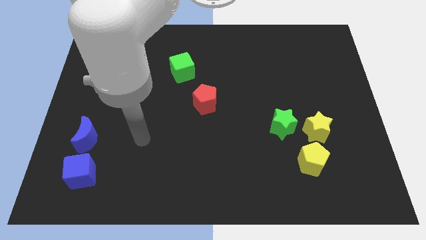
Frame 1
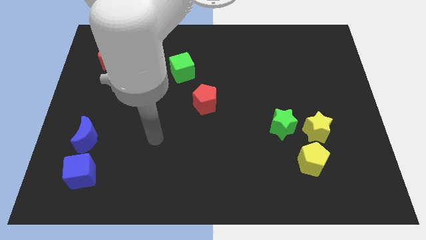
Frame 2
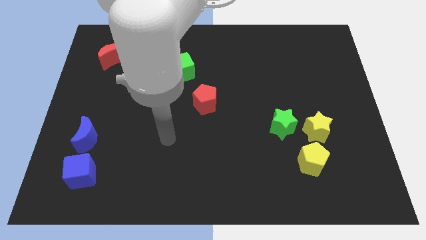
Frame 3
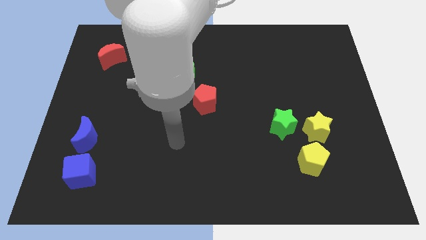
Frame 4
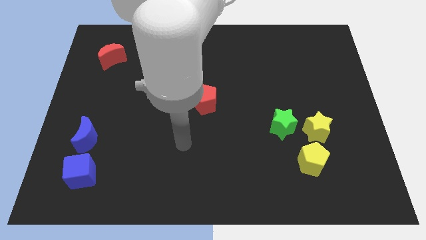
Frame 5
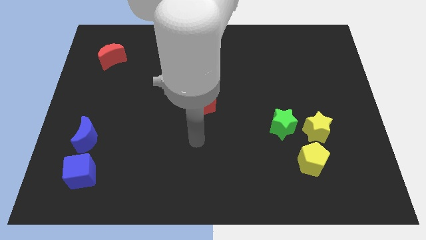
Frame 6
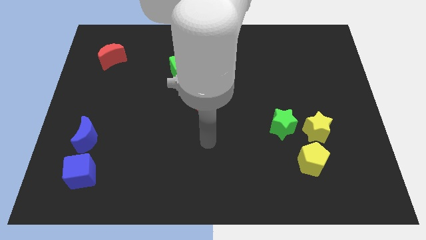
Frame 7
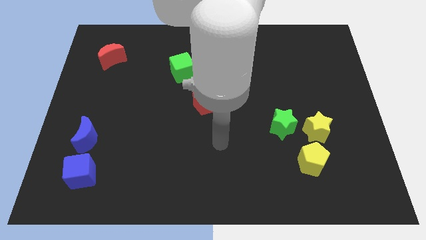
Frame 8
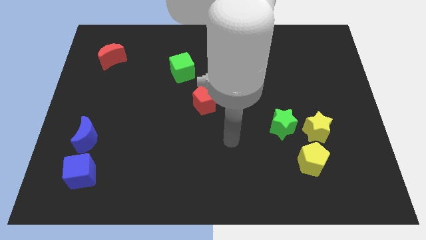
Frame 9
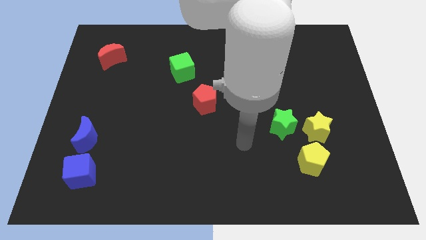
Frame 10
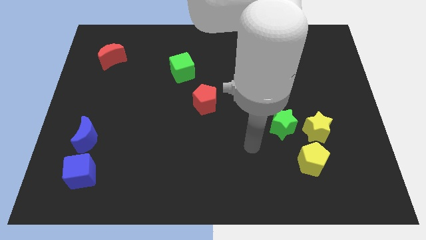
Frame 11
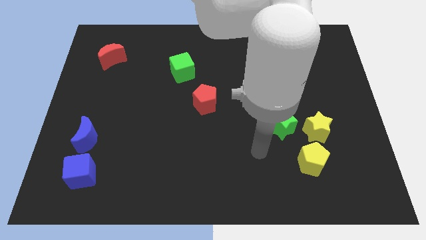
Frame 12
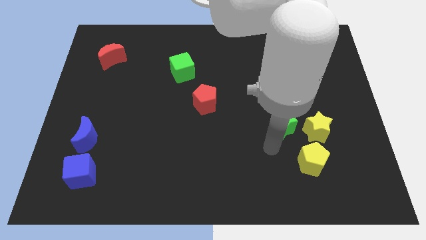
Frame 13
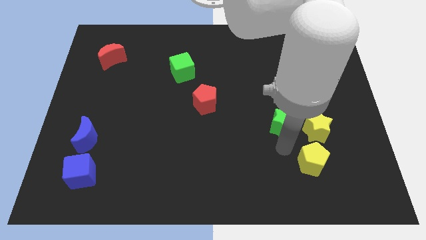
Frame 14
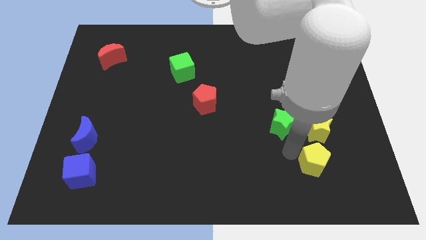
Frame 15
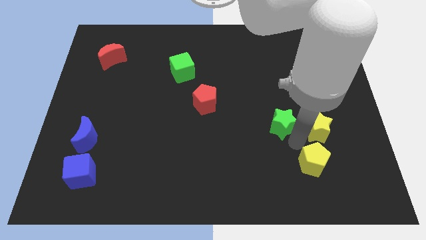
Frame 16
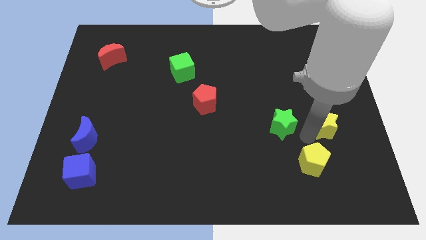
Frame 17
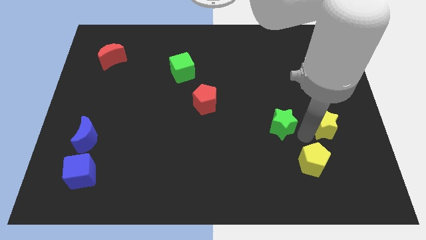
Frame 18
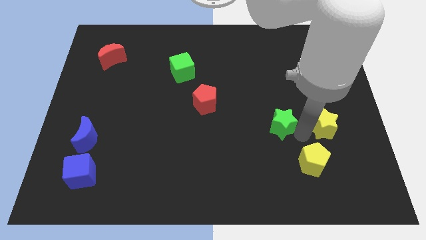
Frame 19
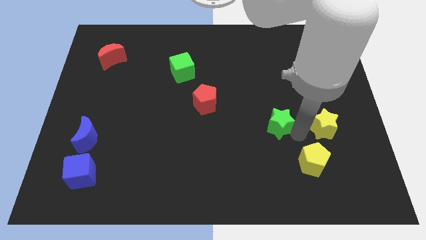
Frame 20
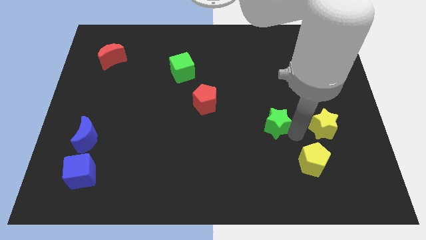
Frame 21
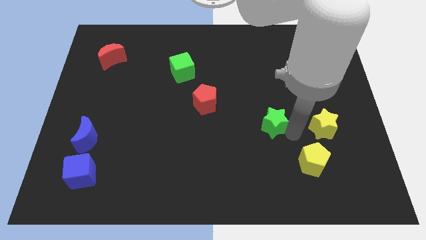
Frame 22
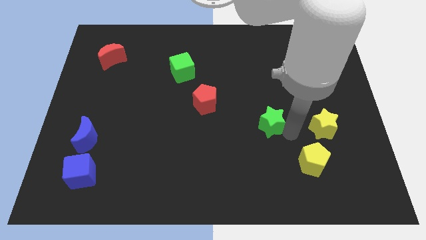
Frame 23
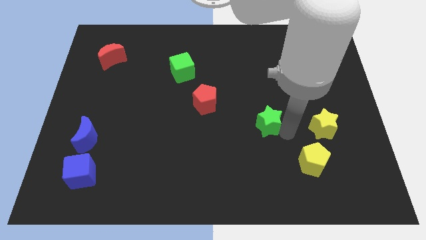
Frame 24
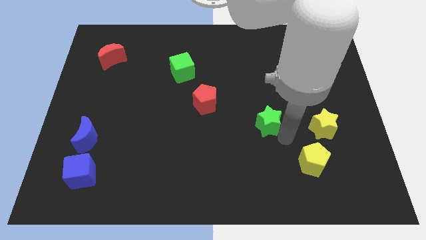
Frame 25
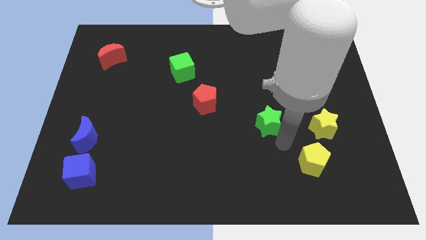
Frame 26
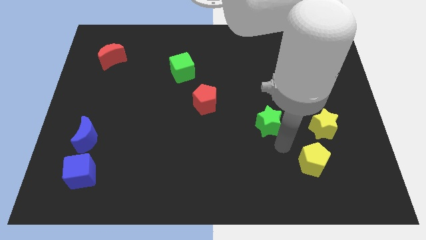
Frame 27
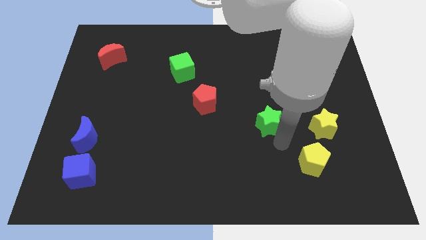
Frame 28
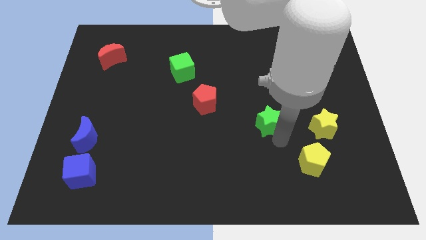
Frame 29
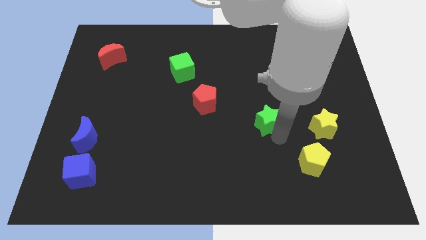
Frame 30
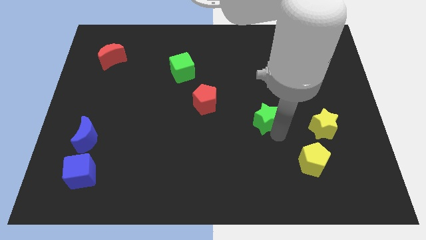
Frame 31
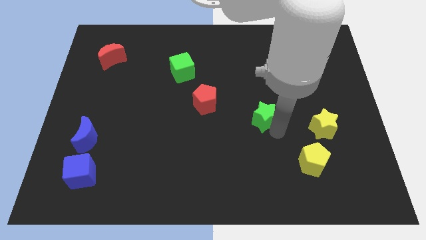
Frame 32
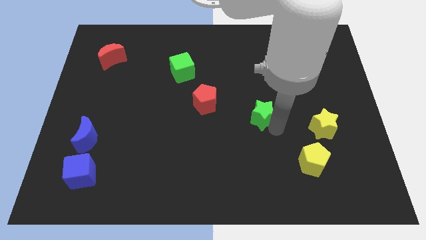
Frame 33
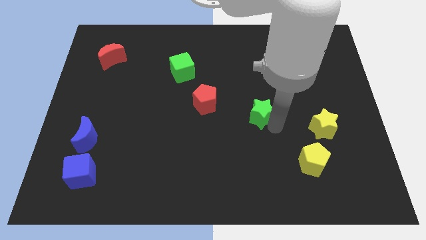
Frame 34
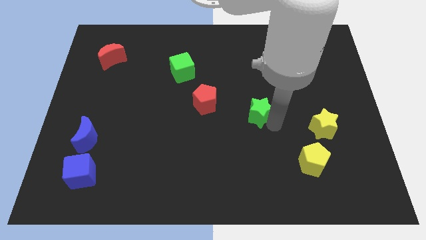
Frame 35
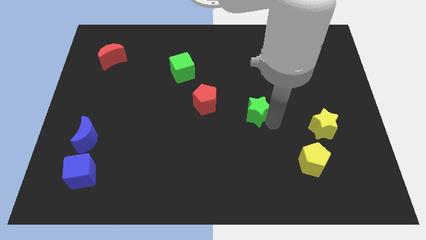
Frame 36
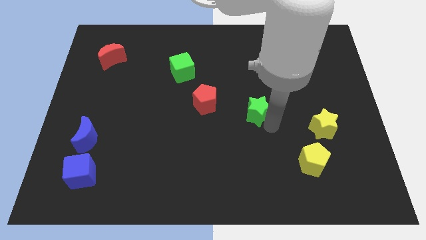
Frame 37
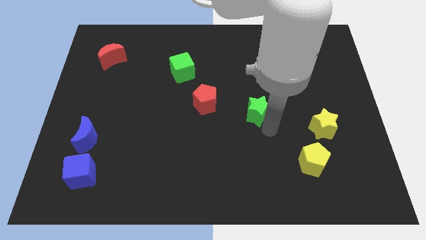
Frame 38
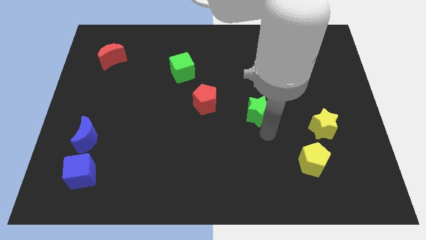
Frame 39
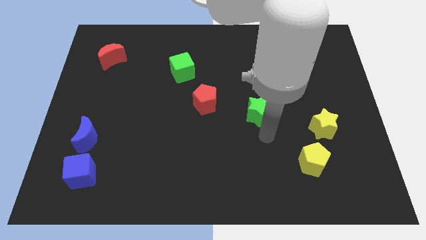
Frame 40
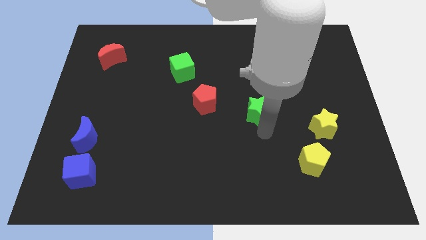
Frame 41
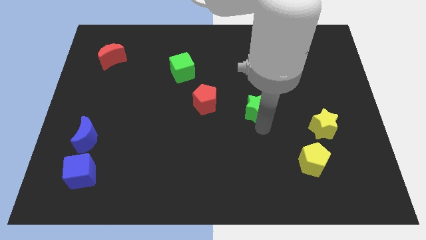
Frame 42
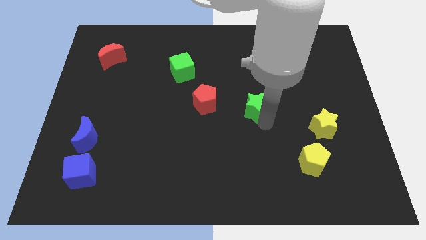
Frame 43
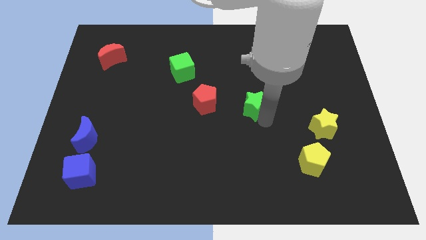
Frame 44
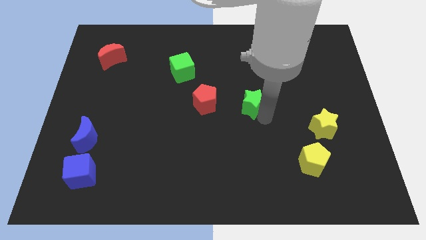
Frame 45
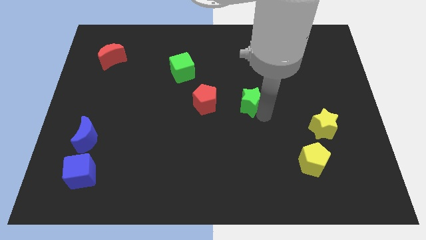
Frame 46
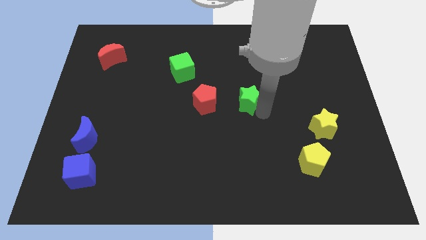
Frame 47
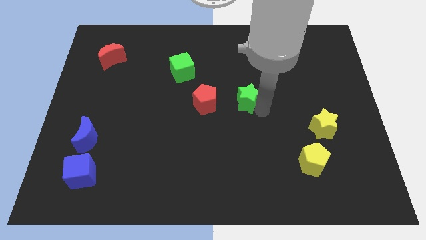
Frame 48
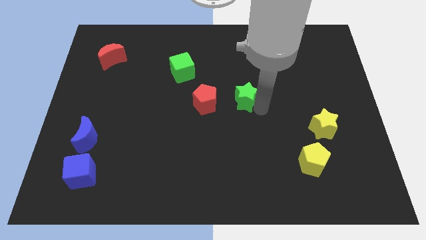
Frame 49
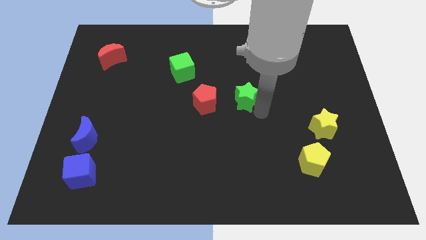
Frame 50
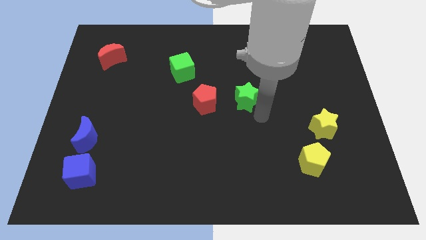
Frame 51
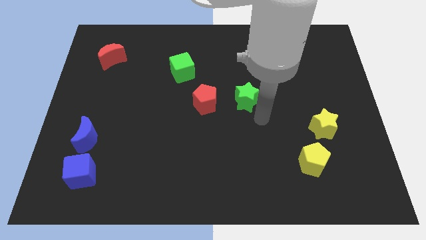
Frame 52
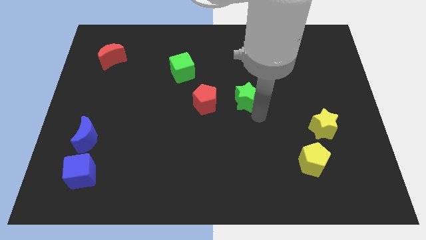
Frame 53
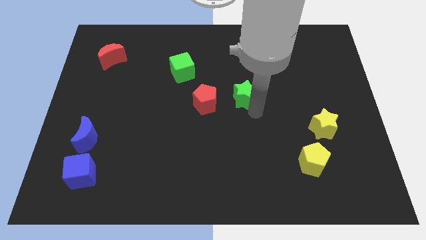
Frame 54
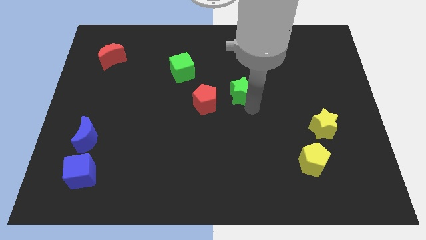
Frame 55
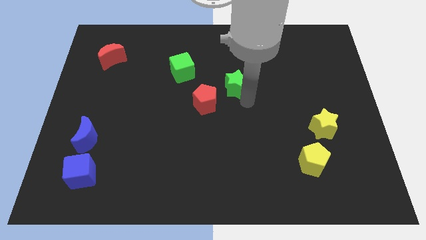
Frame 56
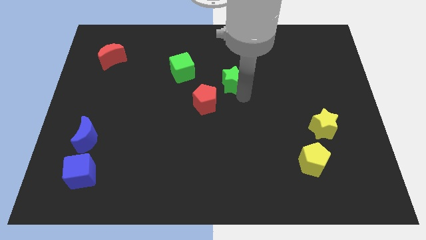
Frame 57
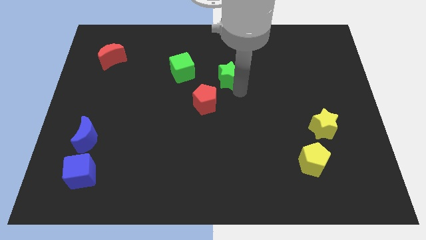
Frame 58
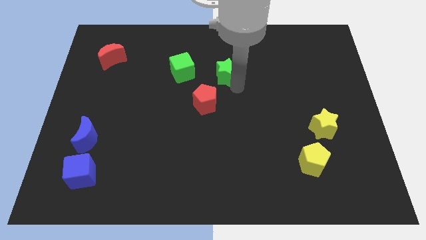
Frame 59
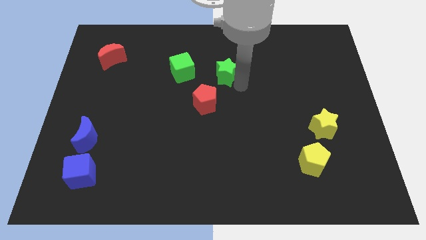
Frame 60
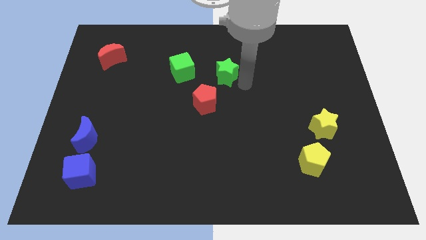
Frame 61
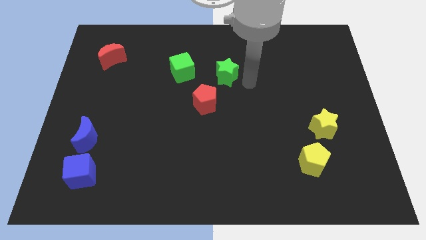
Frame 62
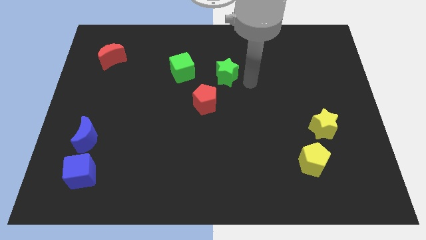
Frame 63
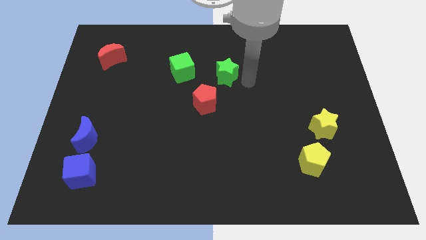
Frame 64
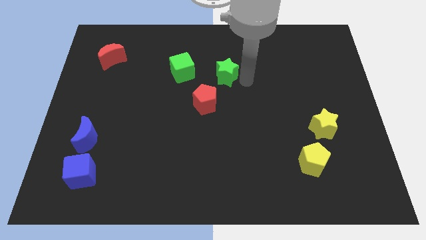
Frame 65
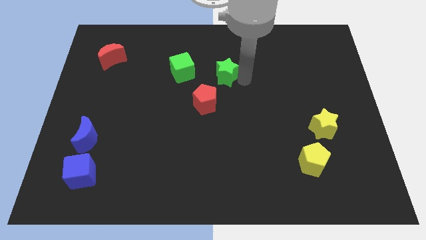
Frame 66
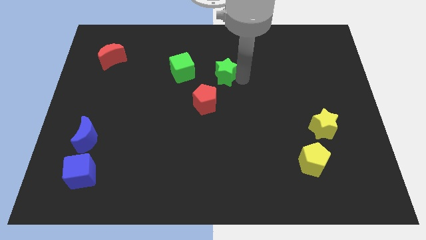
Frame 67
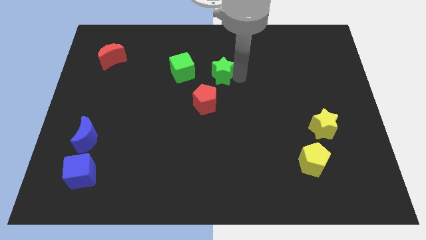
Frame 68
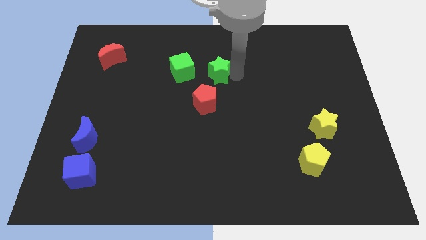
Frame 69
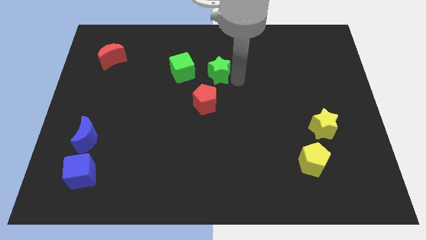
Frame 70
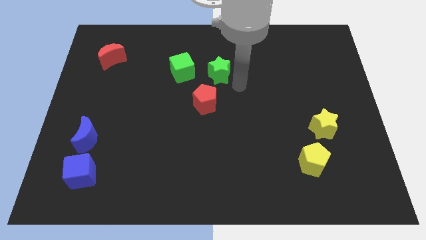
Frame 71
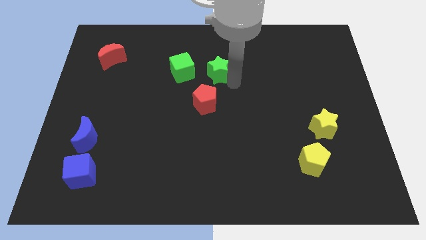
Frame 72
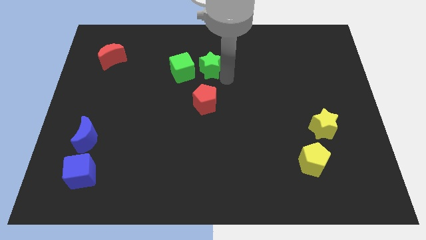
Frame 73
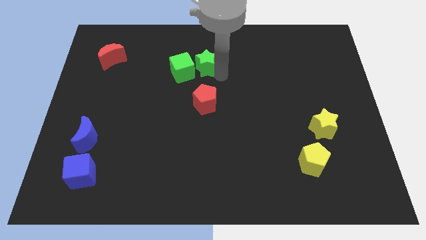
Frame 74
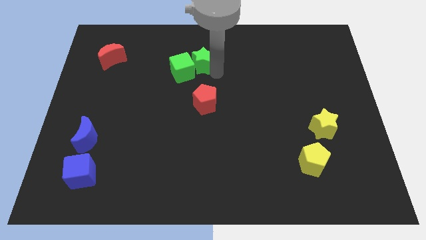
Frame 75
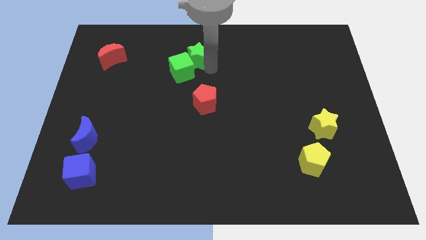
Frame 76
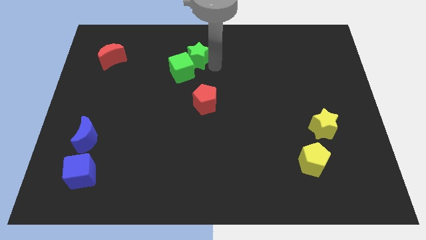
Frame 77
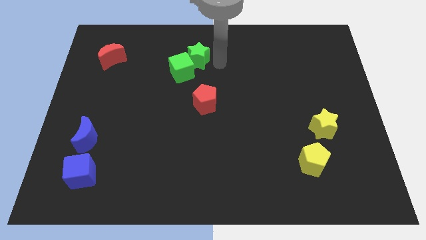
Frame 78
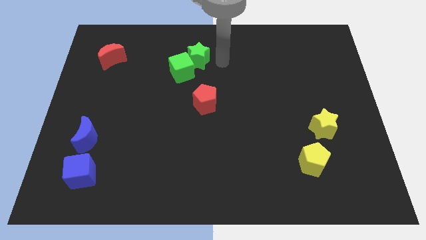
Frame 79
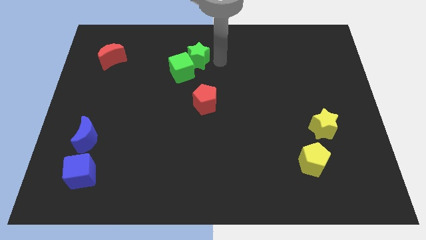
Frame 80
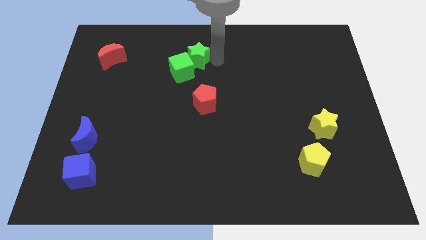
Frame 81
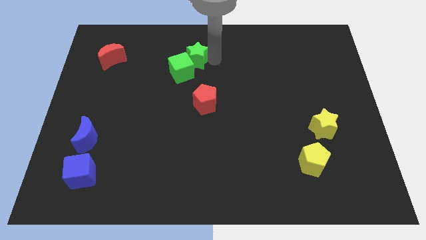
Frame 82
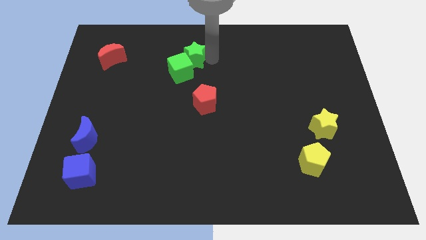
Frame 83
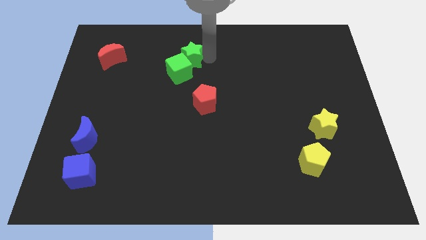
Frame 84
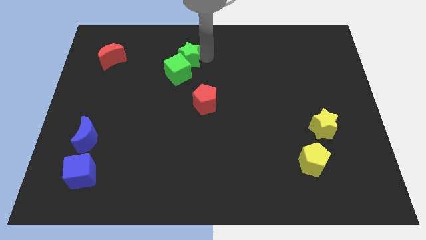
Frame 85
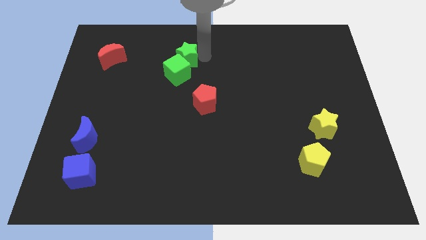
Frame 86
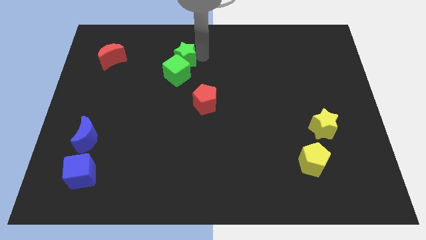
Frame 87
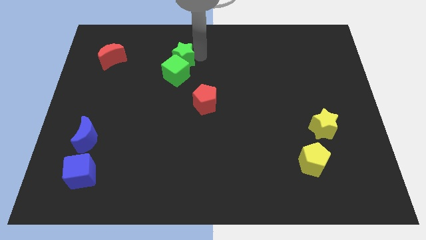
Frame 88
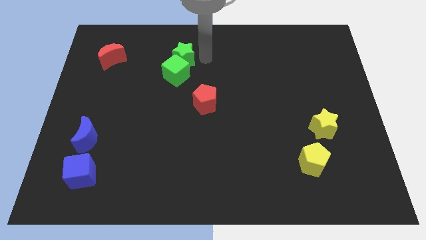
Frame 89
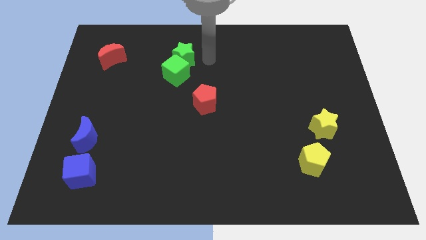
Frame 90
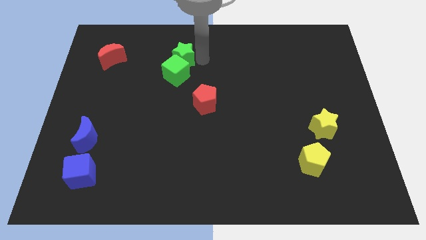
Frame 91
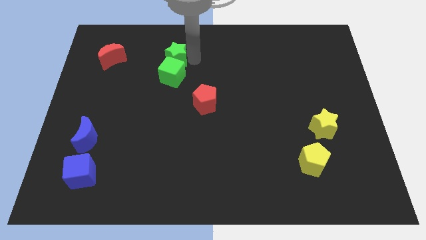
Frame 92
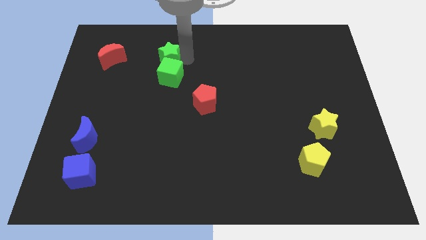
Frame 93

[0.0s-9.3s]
slide the green star just right of the red moon
